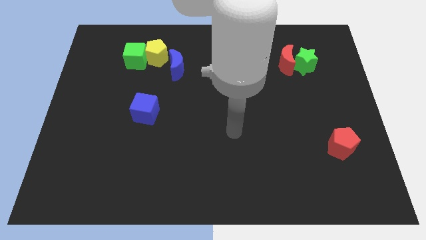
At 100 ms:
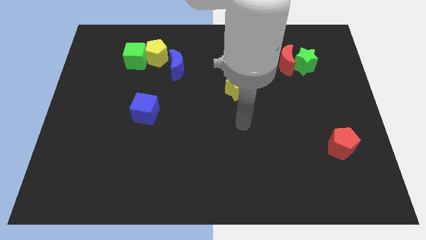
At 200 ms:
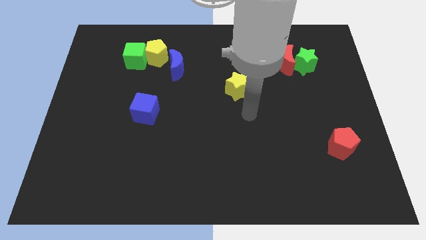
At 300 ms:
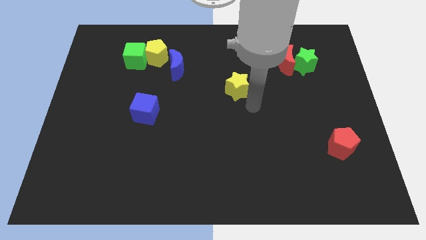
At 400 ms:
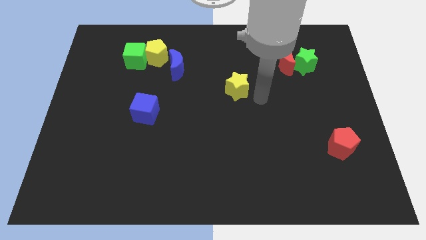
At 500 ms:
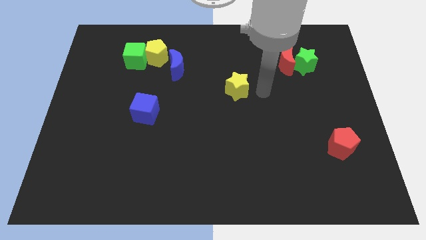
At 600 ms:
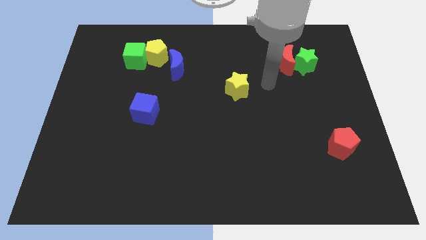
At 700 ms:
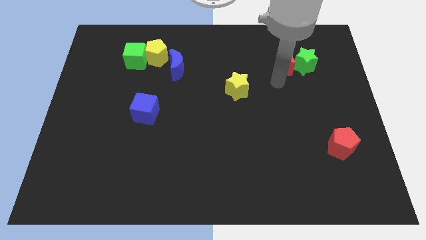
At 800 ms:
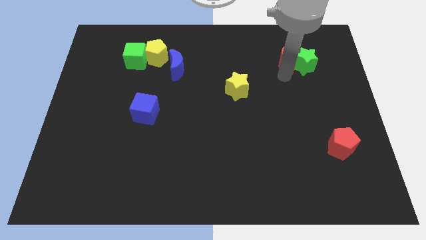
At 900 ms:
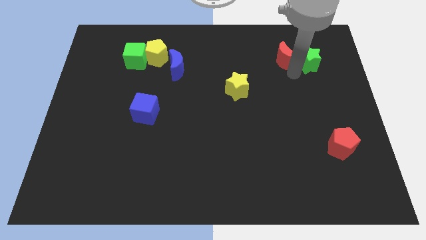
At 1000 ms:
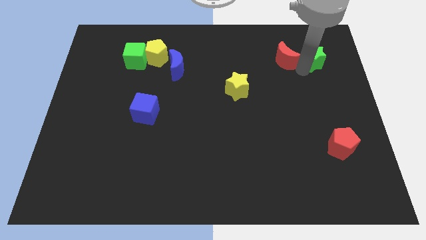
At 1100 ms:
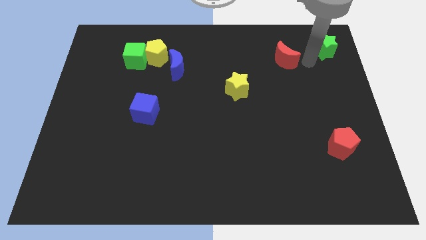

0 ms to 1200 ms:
separate the red moon from the green star

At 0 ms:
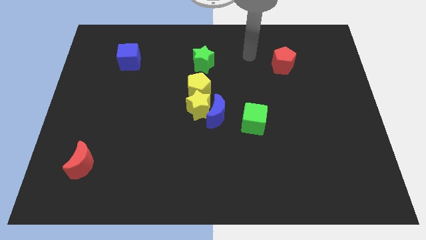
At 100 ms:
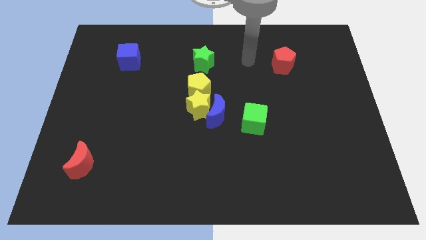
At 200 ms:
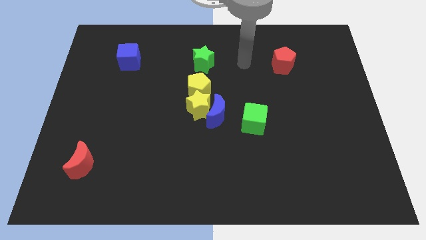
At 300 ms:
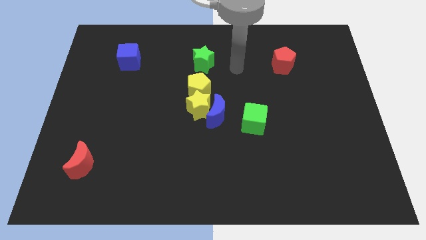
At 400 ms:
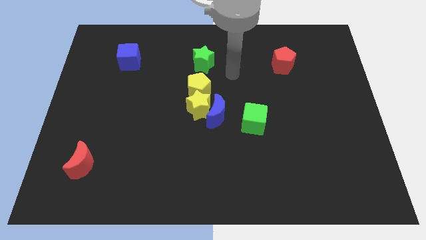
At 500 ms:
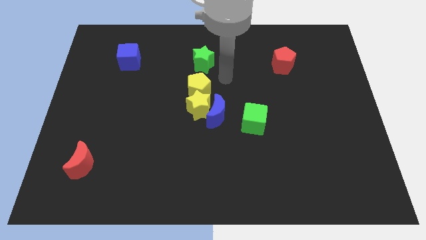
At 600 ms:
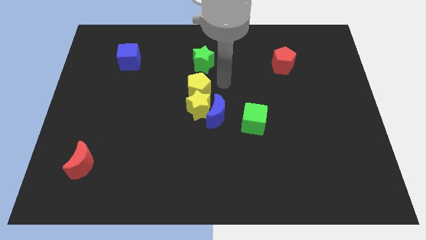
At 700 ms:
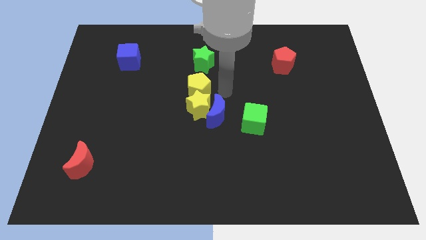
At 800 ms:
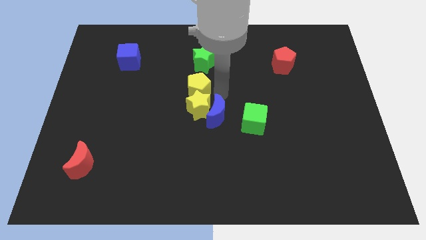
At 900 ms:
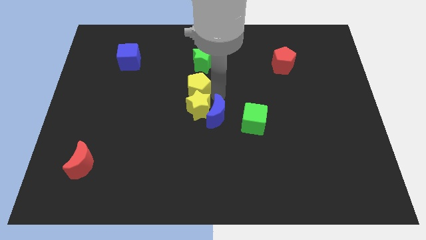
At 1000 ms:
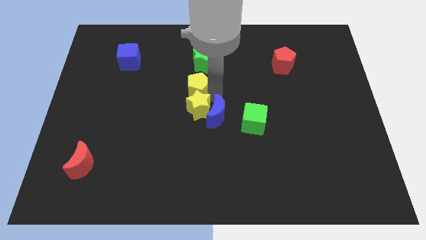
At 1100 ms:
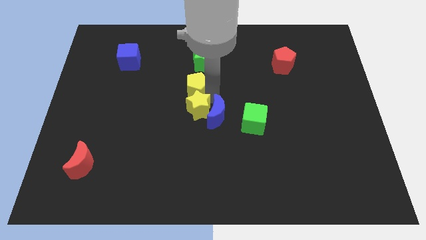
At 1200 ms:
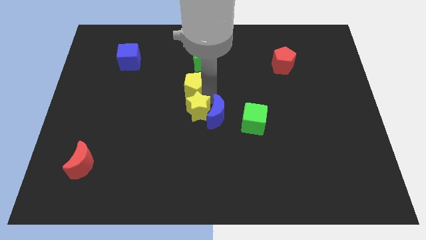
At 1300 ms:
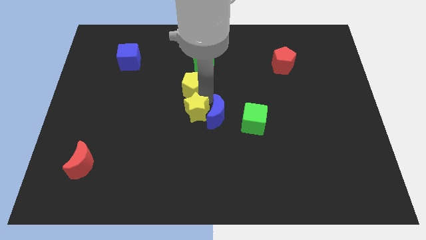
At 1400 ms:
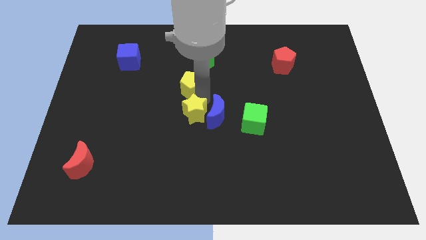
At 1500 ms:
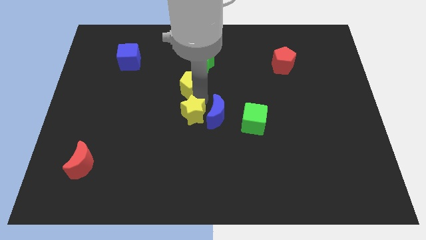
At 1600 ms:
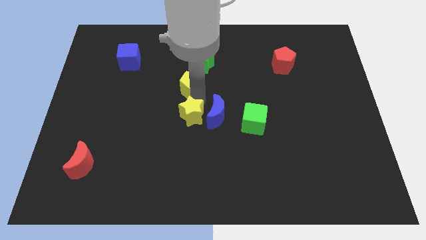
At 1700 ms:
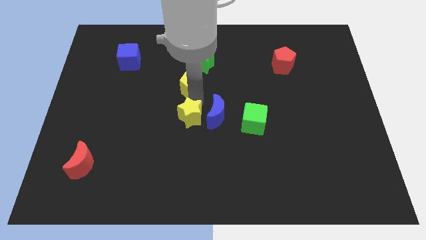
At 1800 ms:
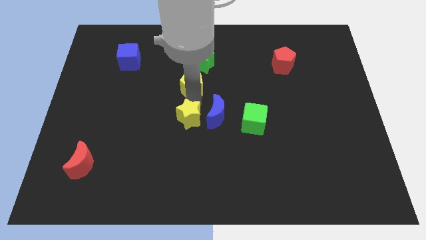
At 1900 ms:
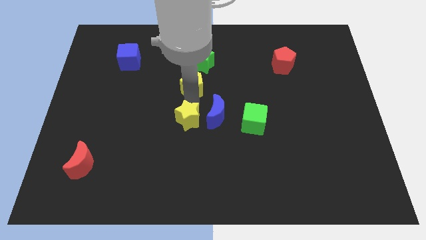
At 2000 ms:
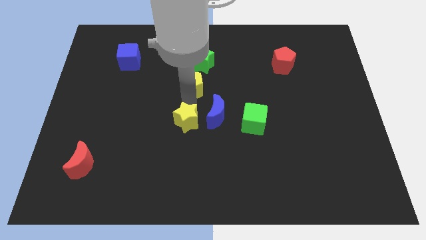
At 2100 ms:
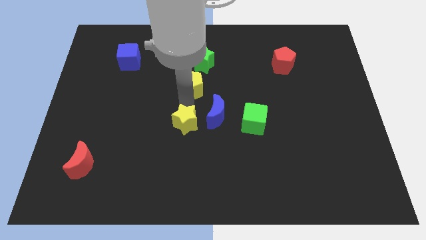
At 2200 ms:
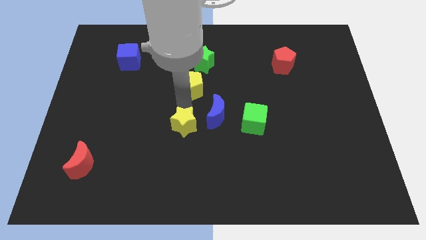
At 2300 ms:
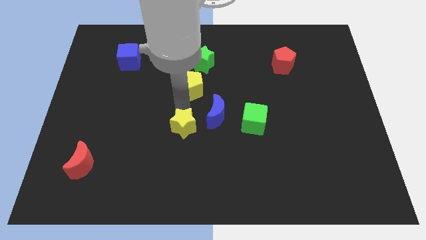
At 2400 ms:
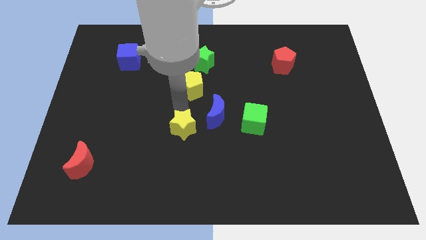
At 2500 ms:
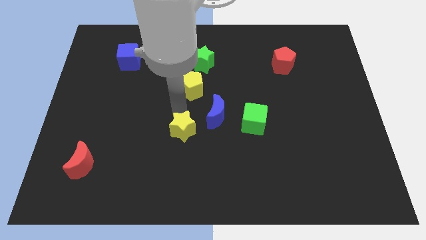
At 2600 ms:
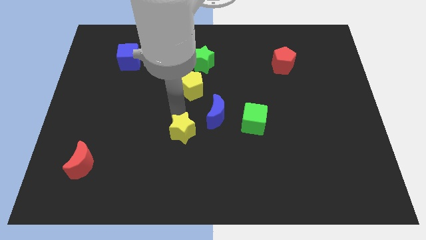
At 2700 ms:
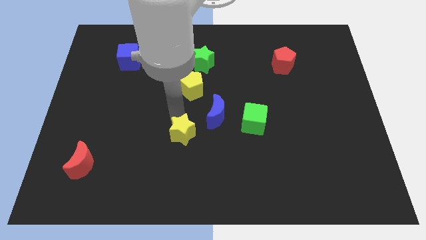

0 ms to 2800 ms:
move the yellow star away from the blue moon and yellow pentagon

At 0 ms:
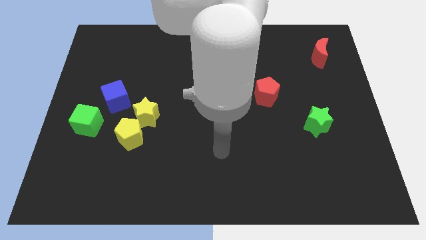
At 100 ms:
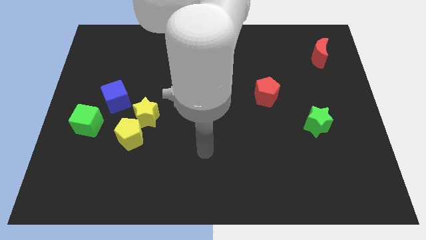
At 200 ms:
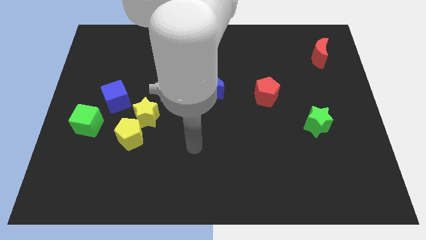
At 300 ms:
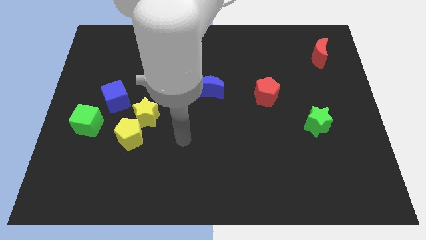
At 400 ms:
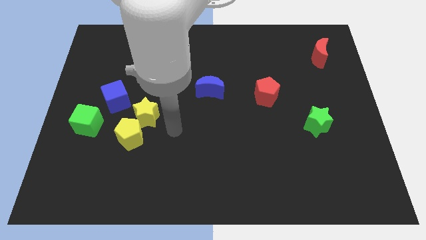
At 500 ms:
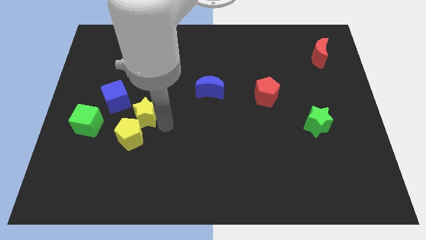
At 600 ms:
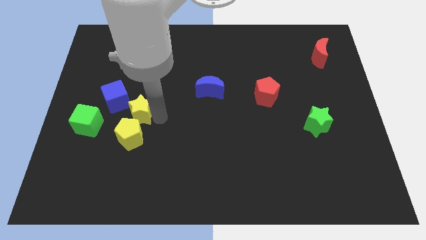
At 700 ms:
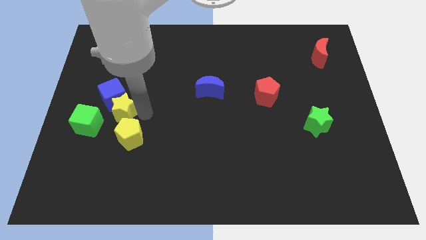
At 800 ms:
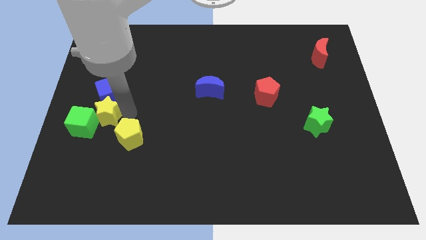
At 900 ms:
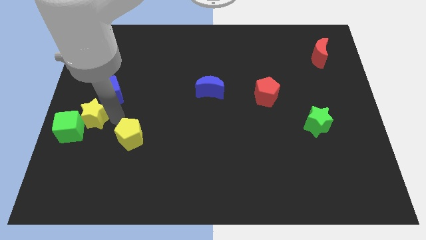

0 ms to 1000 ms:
move the yellow pentagon away from the yellow star

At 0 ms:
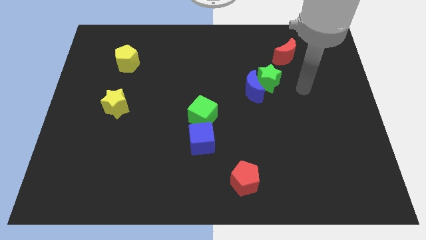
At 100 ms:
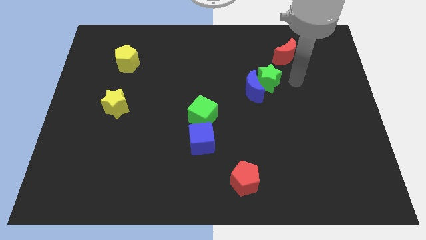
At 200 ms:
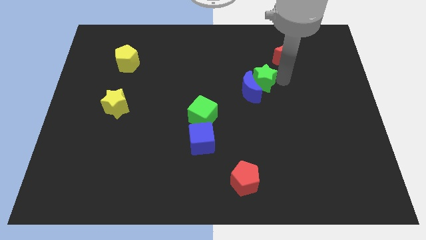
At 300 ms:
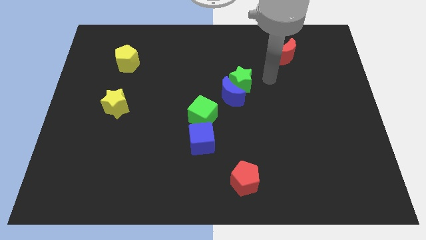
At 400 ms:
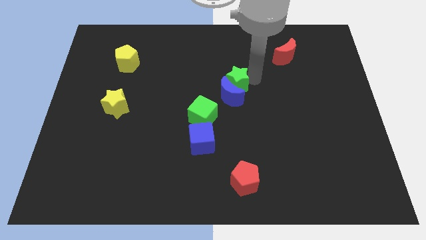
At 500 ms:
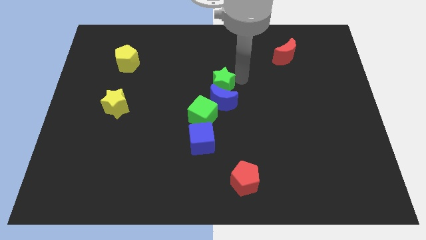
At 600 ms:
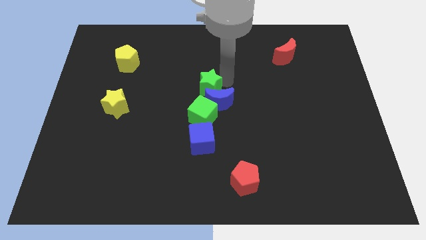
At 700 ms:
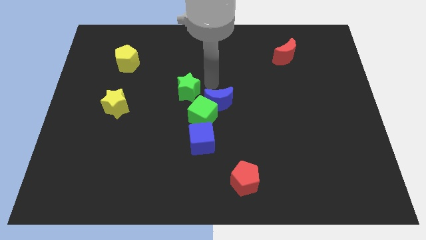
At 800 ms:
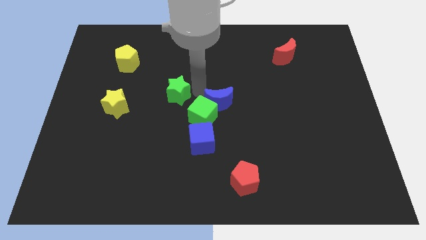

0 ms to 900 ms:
separate the blue moon from the green star

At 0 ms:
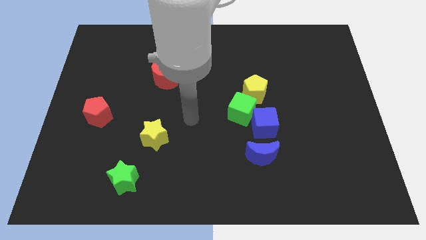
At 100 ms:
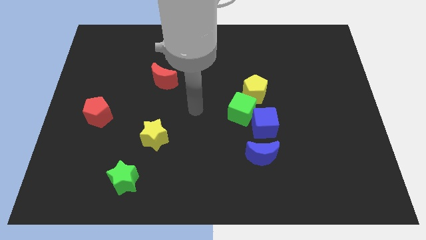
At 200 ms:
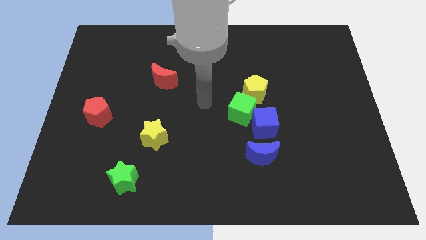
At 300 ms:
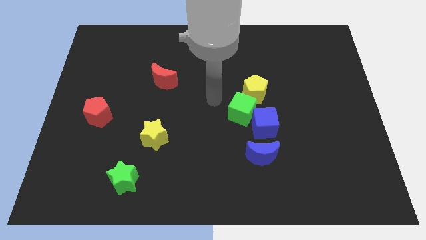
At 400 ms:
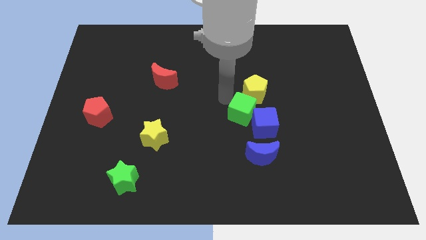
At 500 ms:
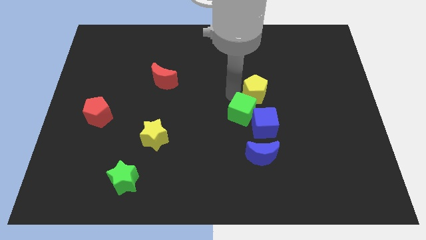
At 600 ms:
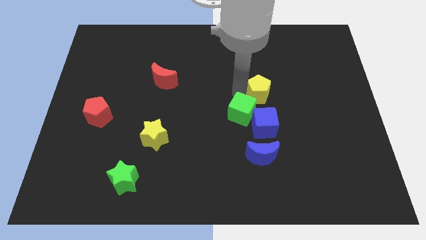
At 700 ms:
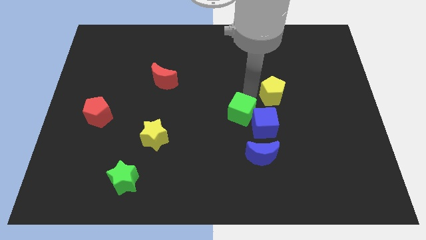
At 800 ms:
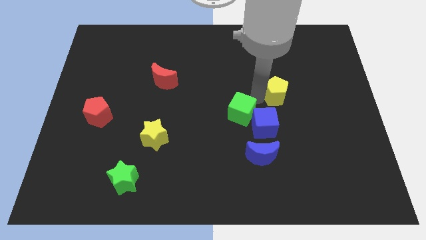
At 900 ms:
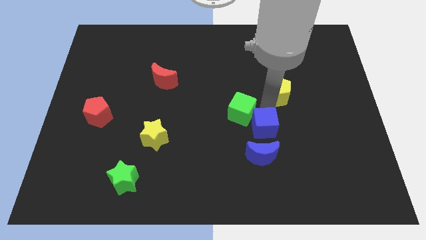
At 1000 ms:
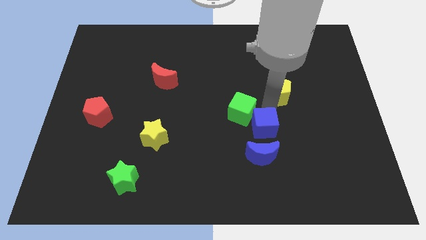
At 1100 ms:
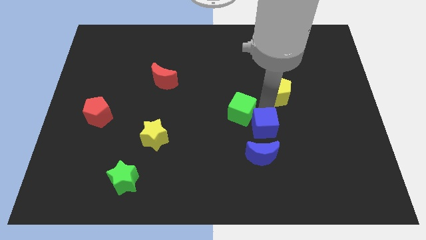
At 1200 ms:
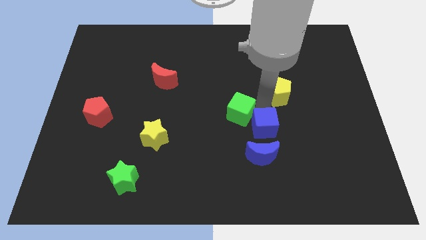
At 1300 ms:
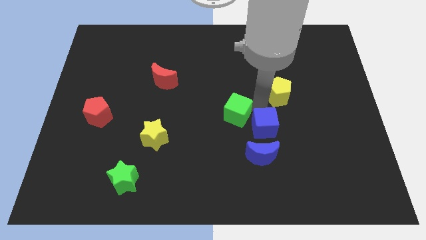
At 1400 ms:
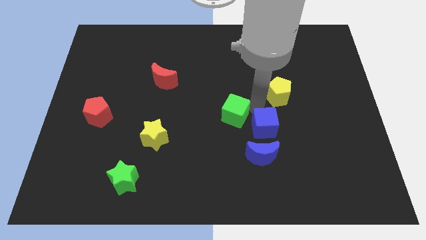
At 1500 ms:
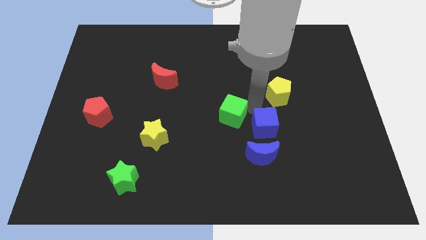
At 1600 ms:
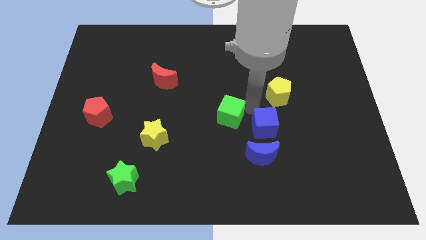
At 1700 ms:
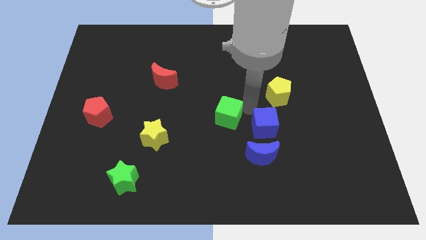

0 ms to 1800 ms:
pull the green cube apart from the blue cube and yellow pentagon

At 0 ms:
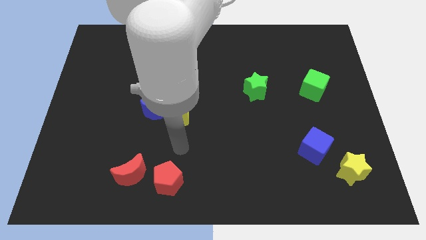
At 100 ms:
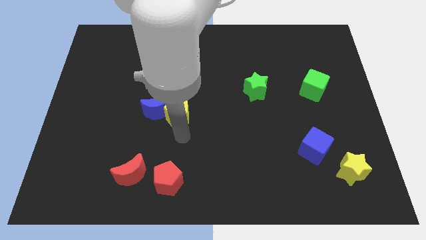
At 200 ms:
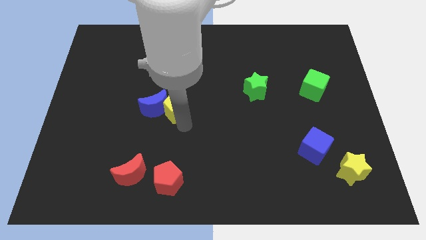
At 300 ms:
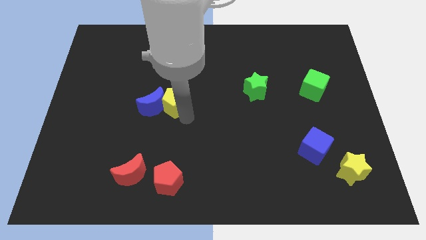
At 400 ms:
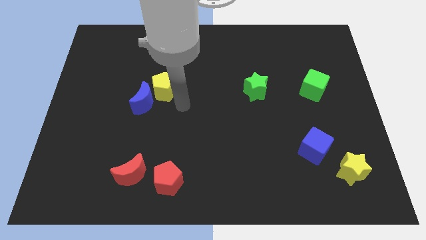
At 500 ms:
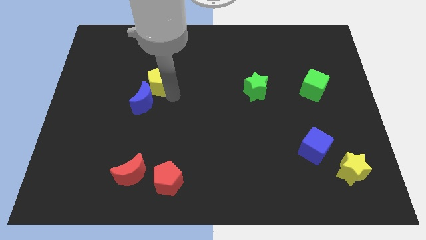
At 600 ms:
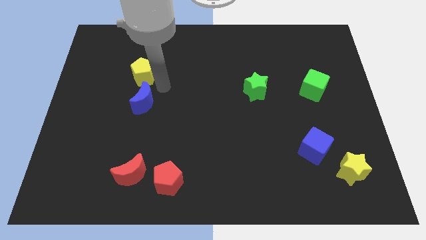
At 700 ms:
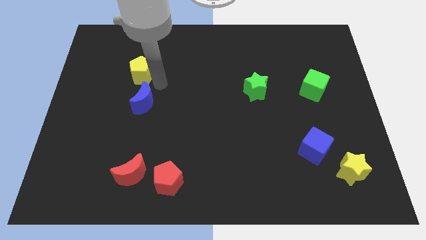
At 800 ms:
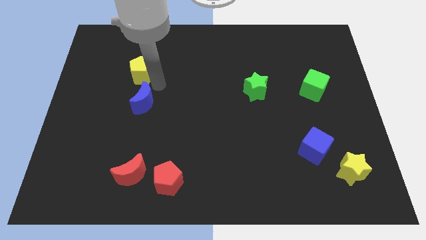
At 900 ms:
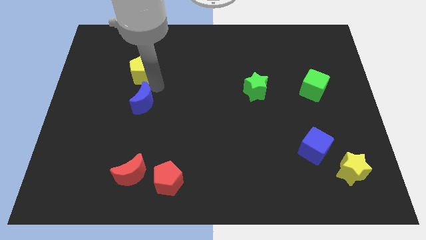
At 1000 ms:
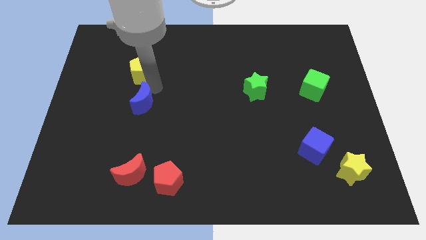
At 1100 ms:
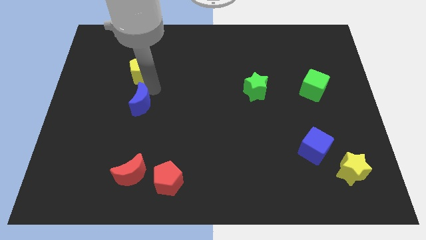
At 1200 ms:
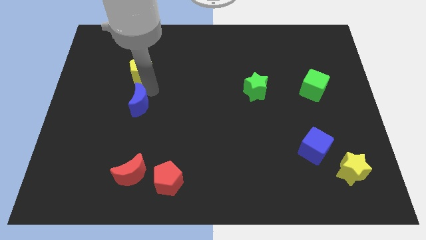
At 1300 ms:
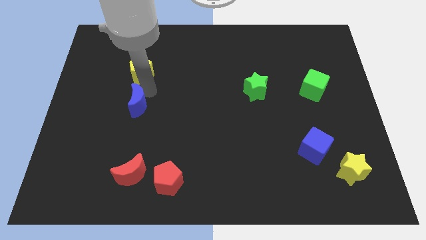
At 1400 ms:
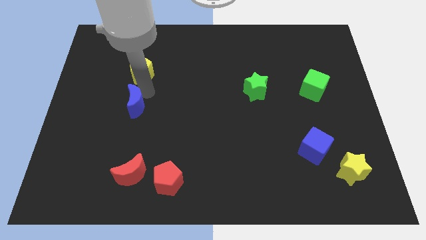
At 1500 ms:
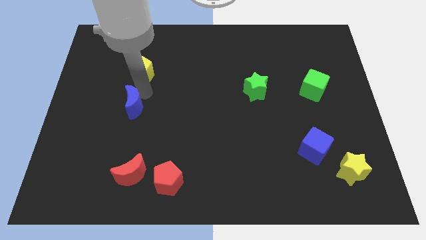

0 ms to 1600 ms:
pull the blue moon apart from the yellow pentagon
